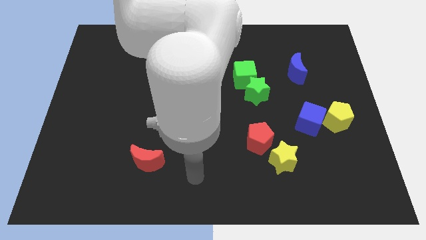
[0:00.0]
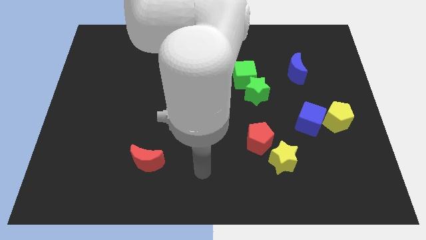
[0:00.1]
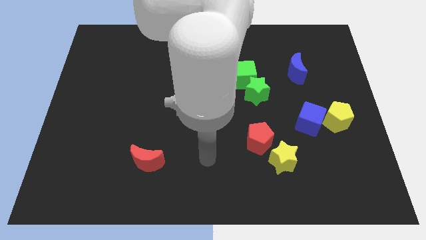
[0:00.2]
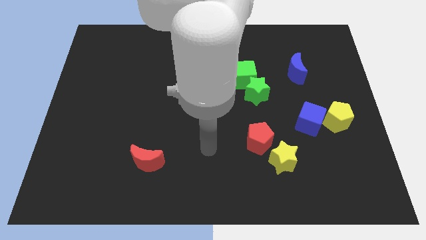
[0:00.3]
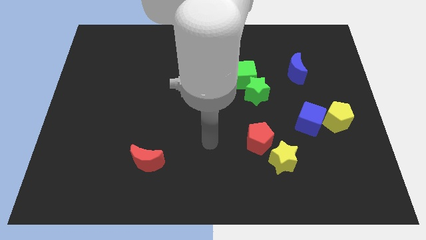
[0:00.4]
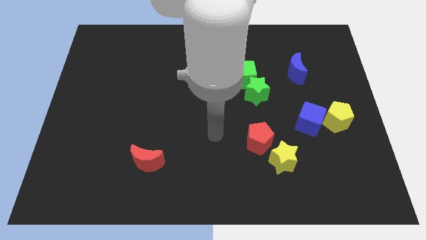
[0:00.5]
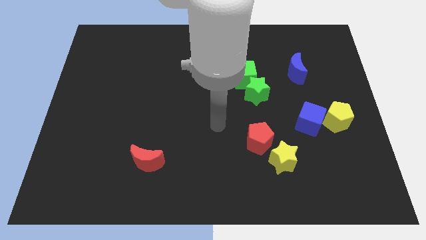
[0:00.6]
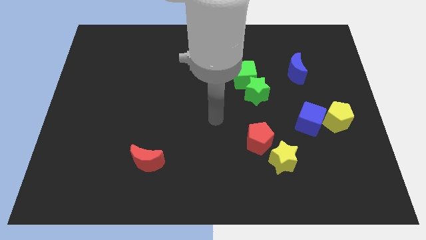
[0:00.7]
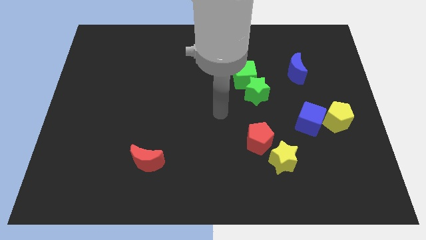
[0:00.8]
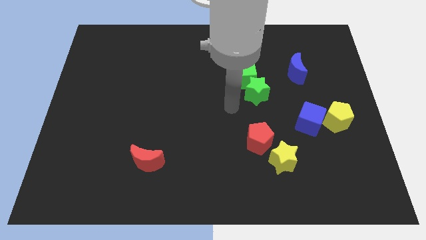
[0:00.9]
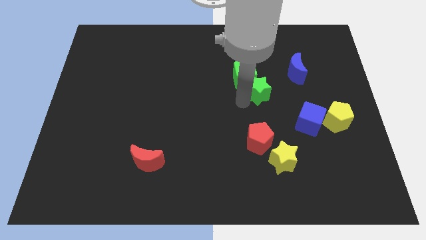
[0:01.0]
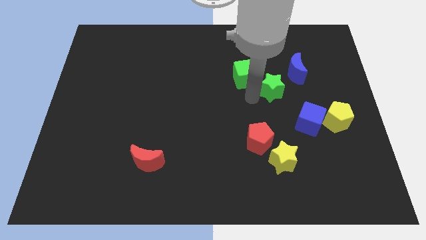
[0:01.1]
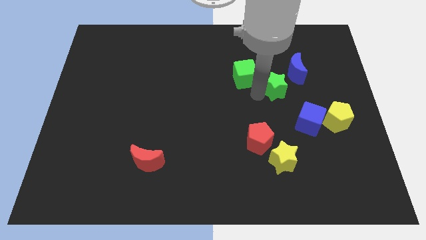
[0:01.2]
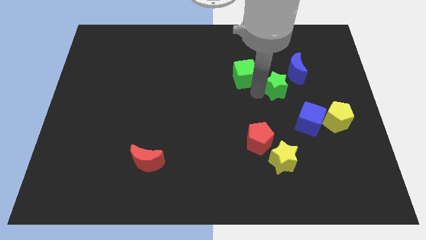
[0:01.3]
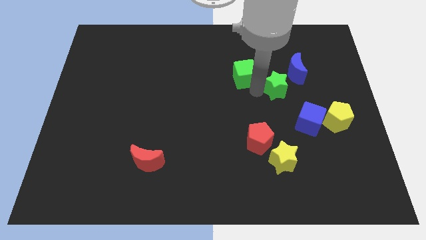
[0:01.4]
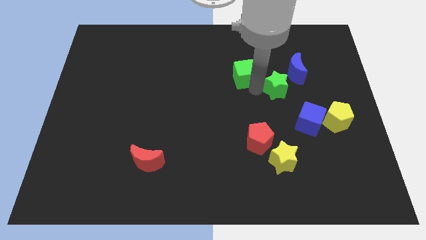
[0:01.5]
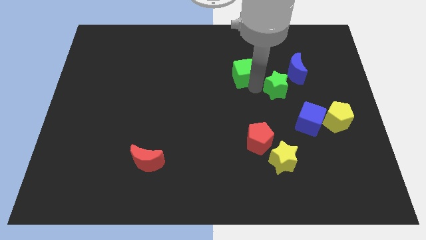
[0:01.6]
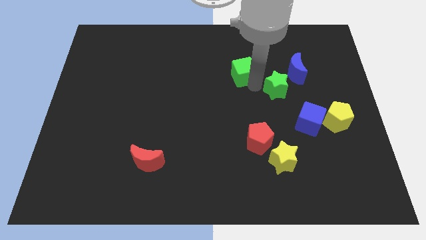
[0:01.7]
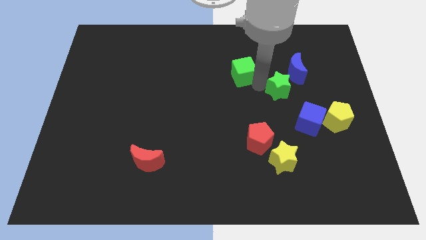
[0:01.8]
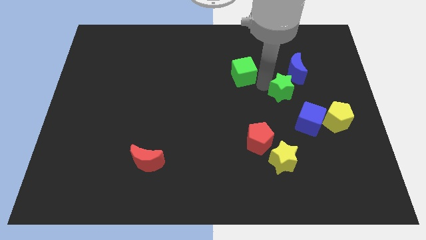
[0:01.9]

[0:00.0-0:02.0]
pull the green cube apart from the green star

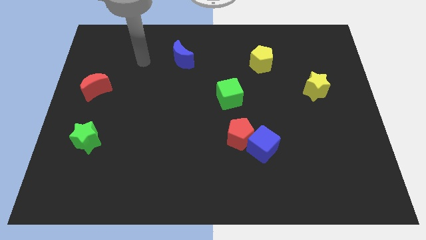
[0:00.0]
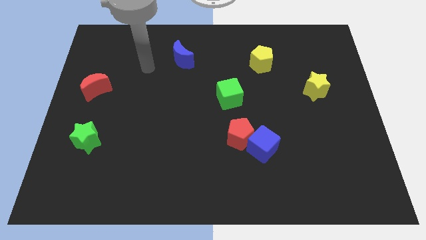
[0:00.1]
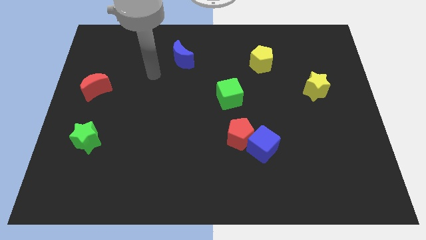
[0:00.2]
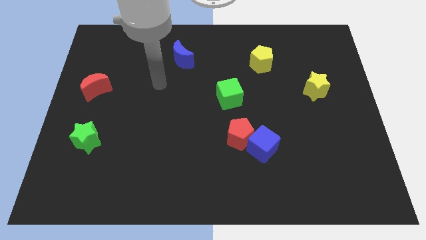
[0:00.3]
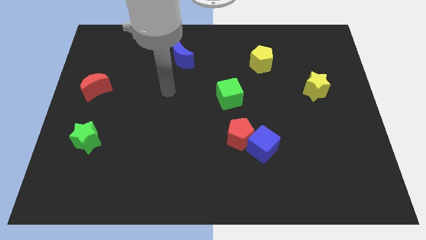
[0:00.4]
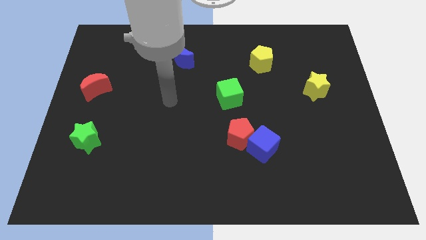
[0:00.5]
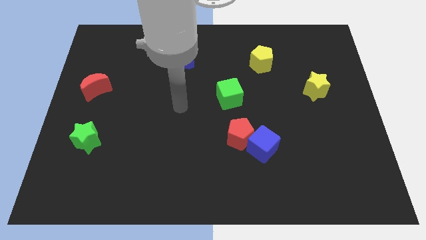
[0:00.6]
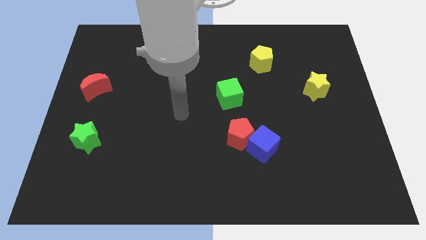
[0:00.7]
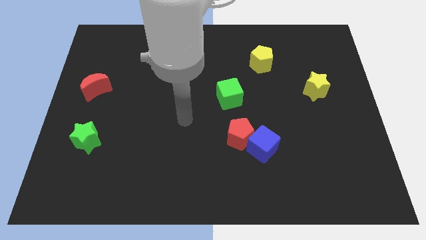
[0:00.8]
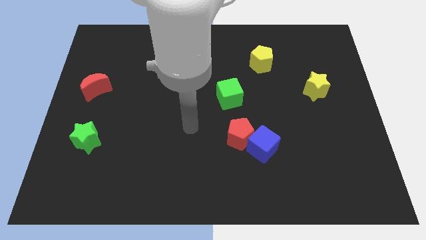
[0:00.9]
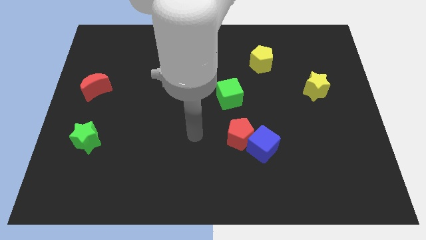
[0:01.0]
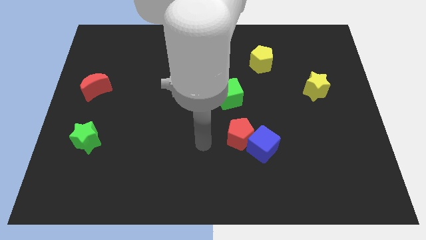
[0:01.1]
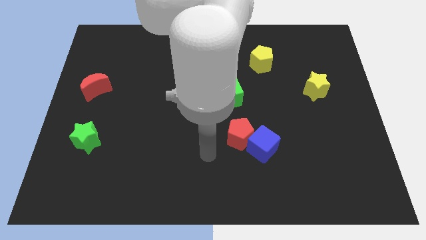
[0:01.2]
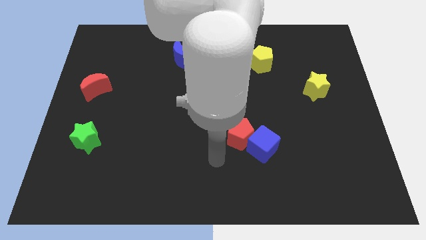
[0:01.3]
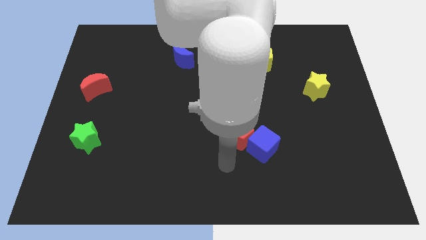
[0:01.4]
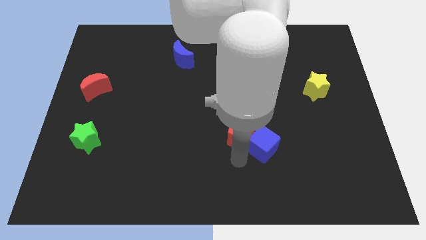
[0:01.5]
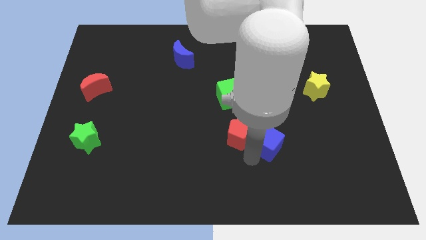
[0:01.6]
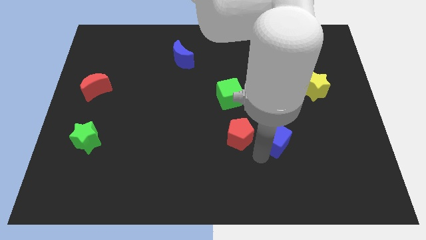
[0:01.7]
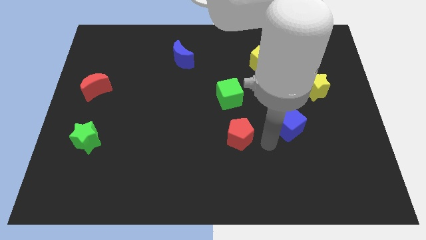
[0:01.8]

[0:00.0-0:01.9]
move the red pentagon away from the blue cube

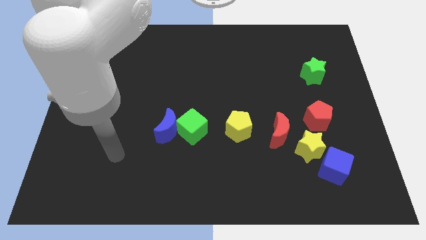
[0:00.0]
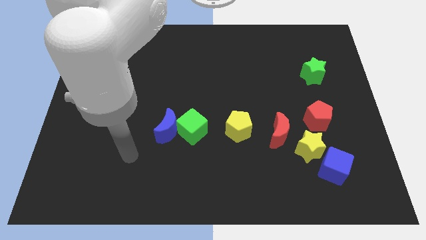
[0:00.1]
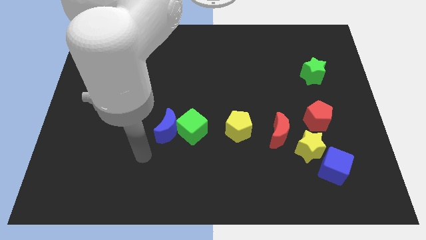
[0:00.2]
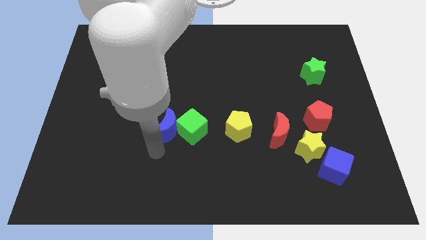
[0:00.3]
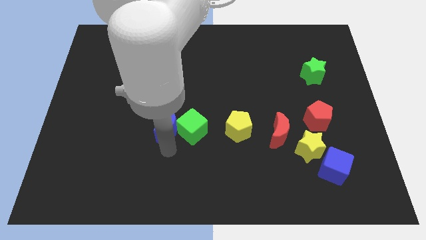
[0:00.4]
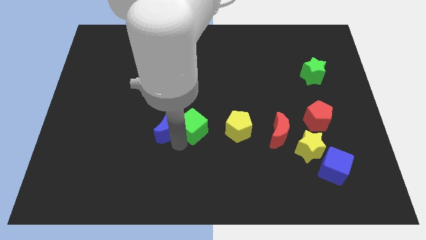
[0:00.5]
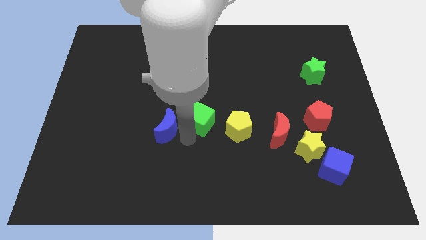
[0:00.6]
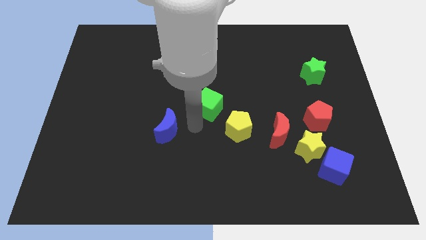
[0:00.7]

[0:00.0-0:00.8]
pull the blue moon apart from the green cube

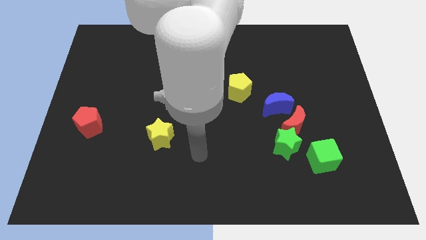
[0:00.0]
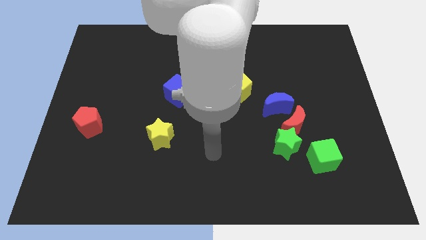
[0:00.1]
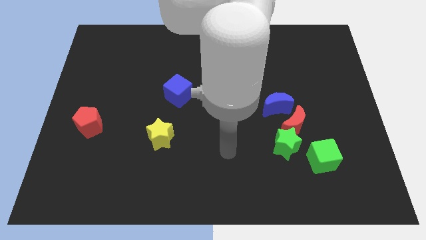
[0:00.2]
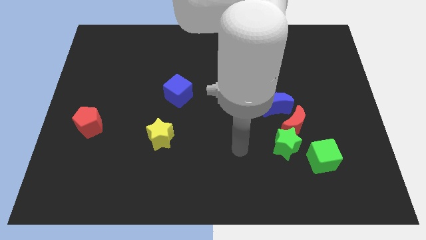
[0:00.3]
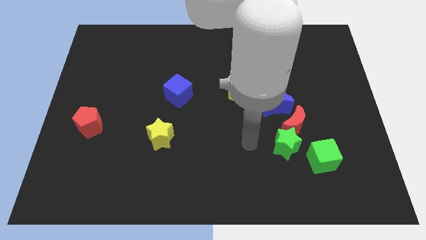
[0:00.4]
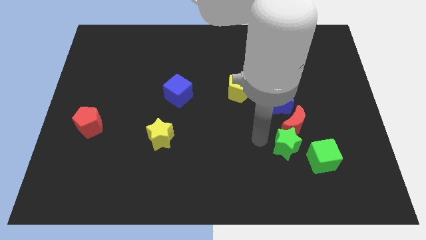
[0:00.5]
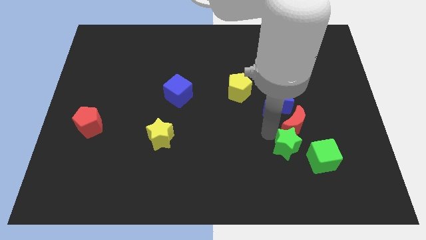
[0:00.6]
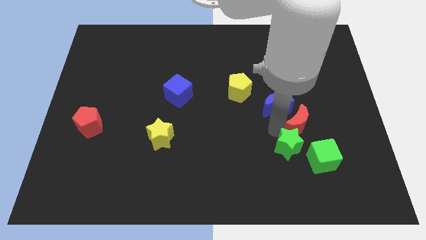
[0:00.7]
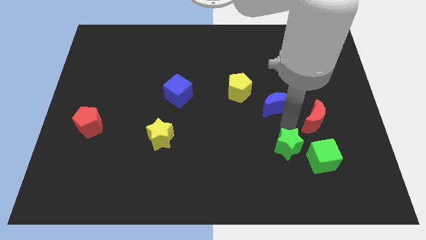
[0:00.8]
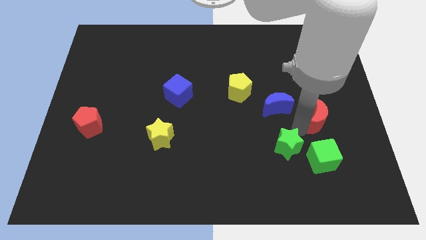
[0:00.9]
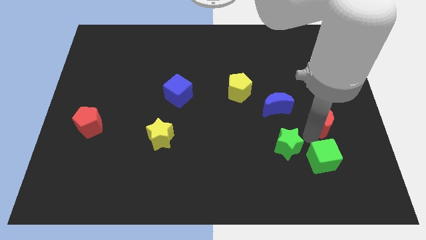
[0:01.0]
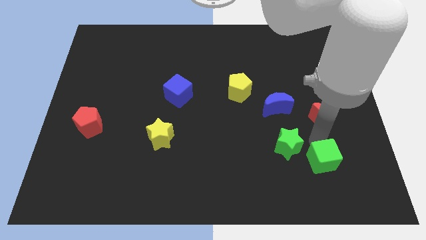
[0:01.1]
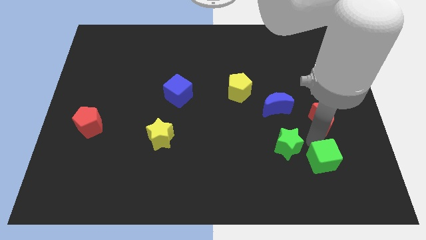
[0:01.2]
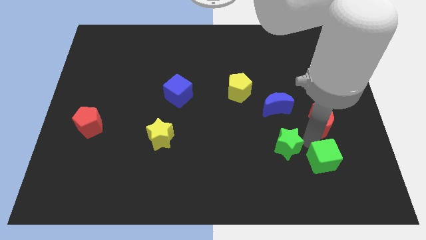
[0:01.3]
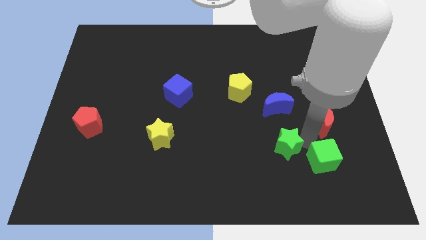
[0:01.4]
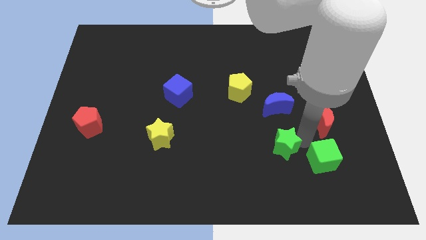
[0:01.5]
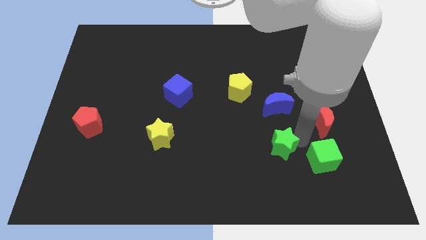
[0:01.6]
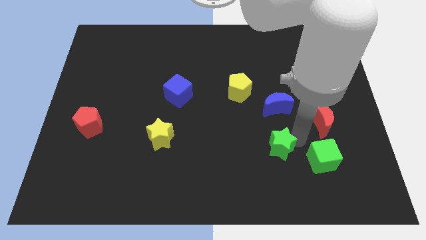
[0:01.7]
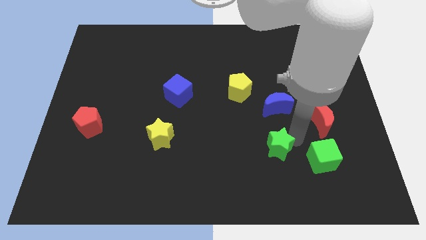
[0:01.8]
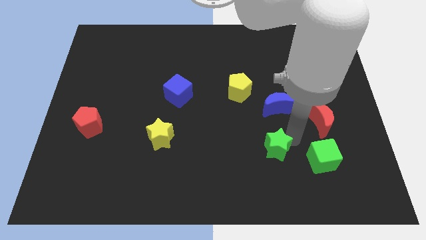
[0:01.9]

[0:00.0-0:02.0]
separate the green star from the red moon and green cube

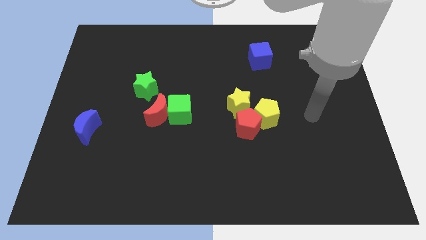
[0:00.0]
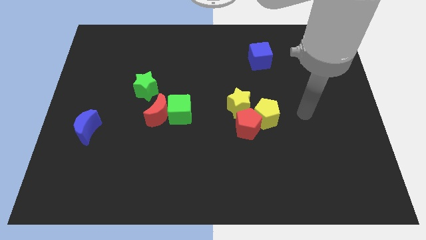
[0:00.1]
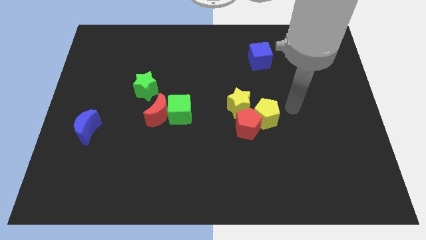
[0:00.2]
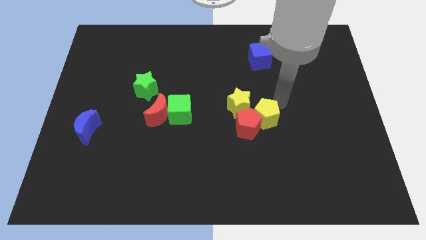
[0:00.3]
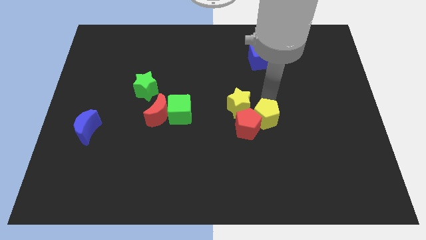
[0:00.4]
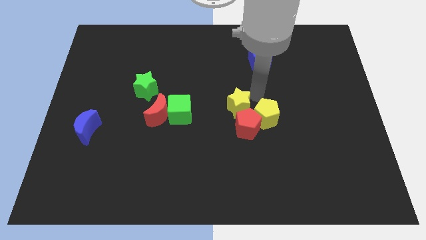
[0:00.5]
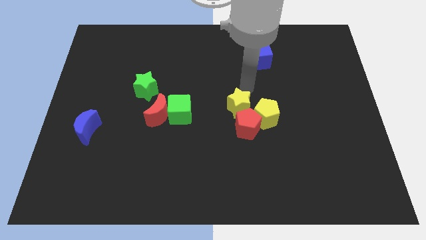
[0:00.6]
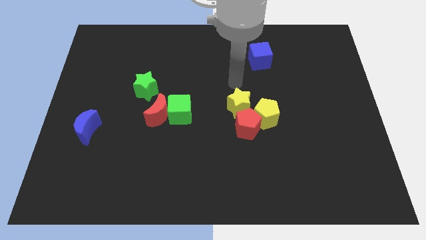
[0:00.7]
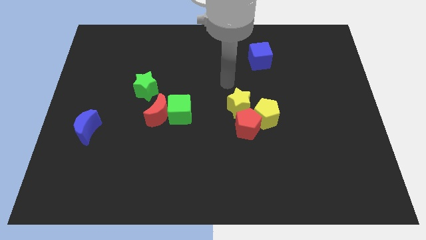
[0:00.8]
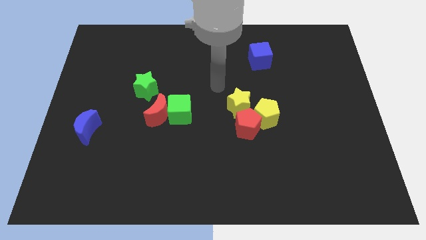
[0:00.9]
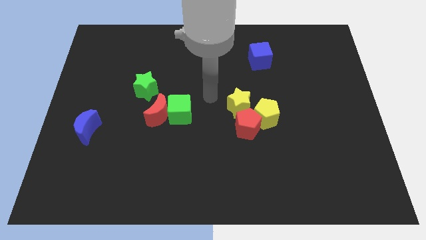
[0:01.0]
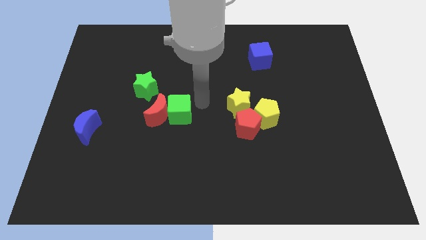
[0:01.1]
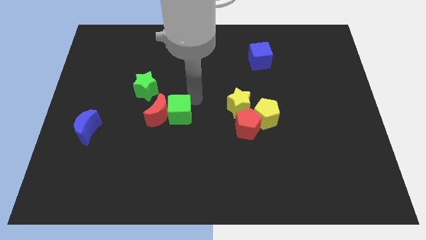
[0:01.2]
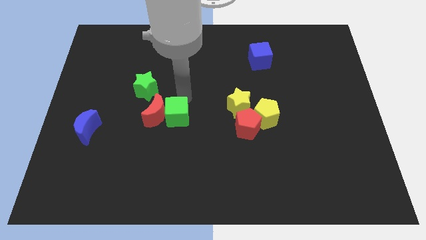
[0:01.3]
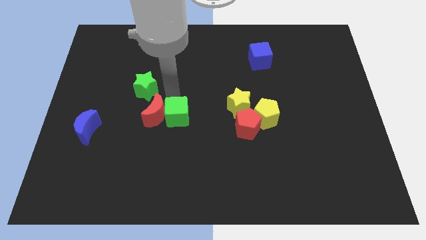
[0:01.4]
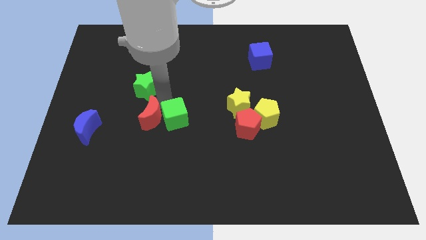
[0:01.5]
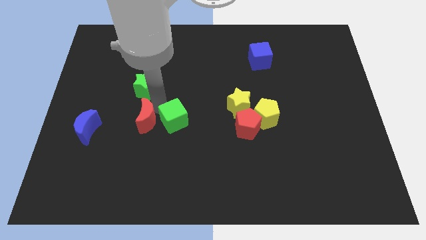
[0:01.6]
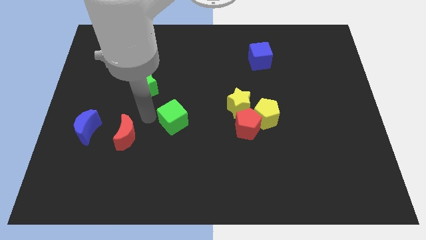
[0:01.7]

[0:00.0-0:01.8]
move the green cube away from the red moon

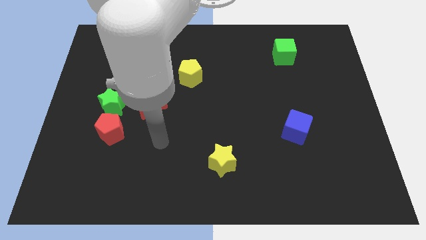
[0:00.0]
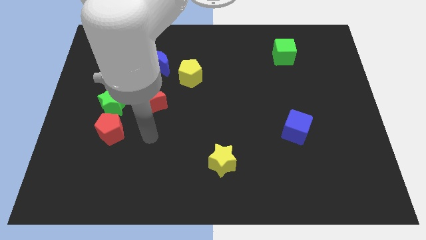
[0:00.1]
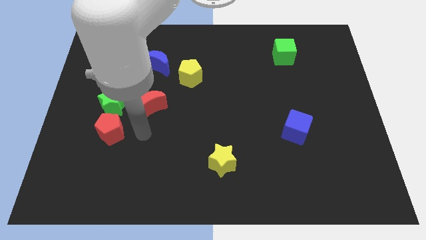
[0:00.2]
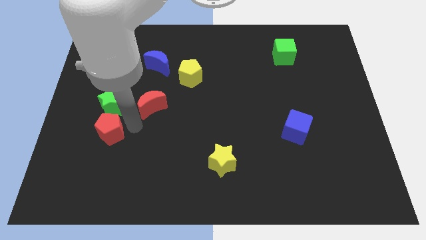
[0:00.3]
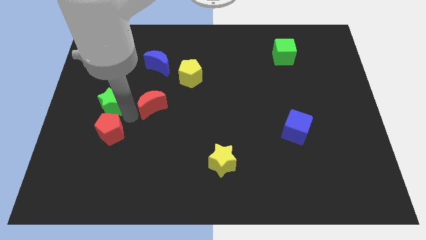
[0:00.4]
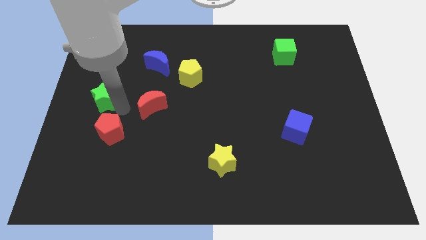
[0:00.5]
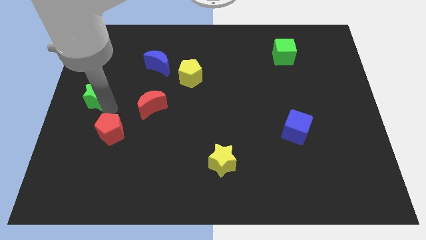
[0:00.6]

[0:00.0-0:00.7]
separate the red pentagon from the green star
